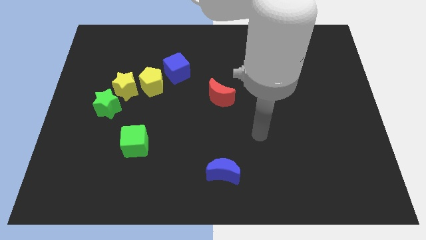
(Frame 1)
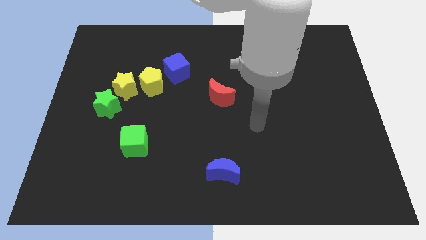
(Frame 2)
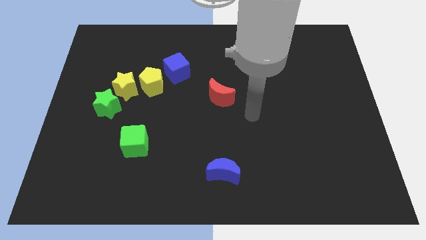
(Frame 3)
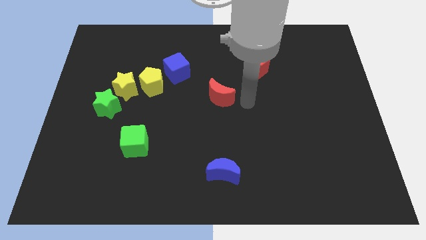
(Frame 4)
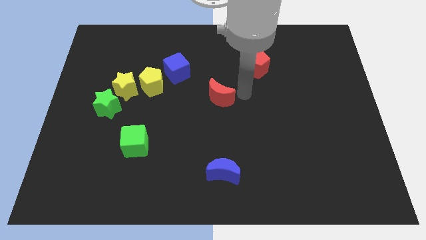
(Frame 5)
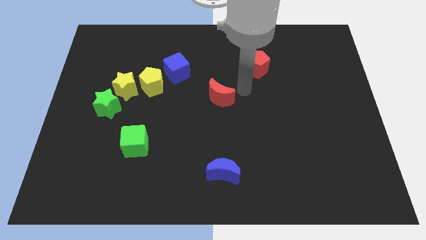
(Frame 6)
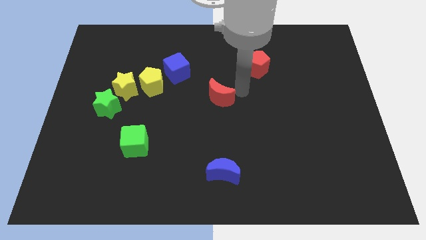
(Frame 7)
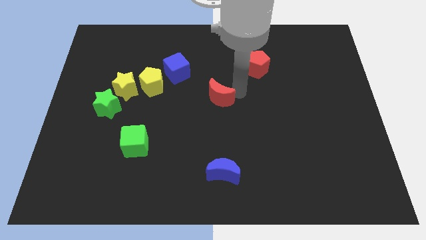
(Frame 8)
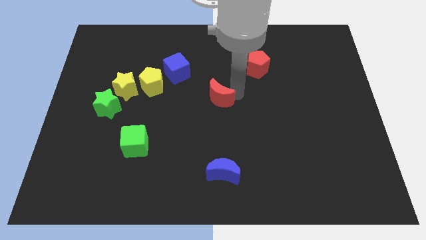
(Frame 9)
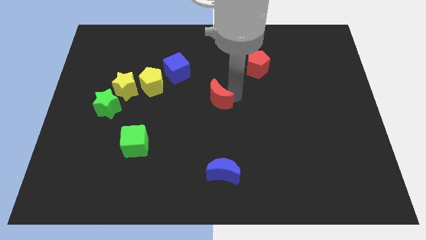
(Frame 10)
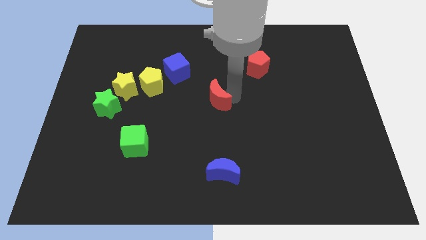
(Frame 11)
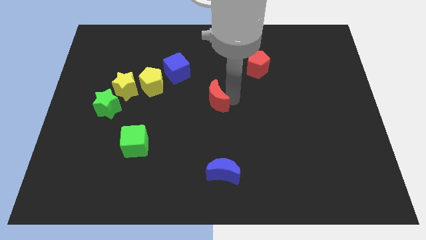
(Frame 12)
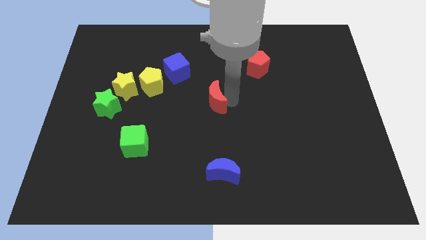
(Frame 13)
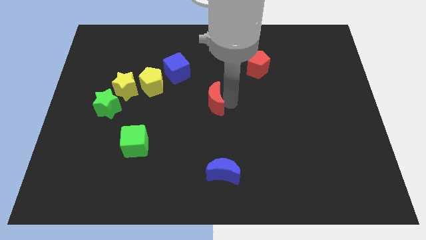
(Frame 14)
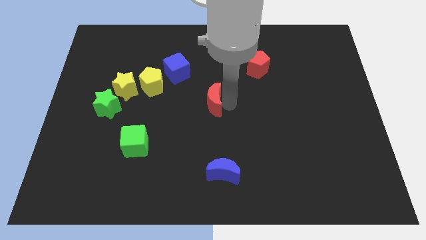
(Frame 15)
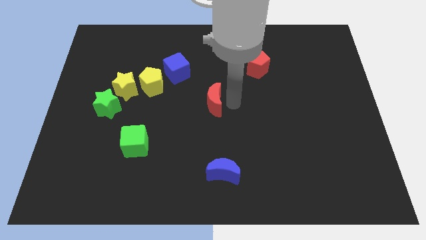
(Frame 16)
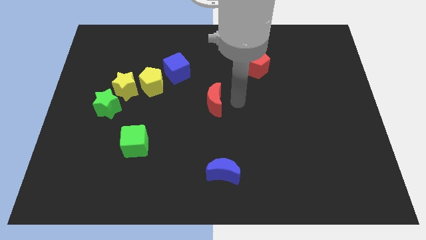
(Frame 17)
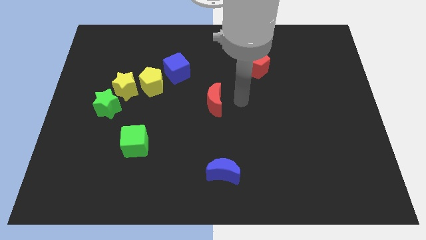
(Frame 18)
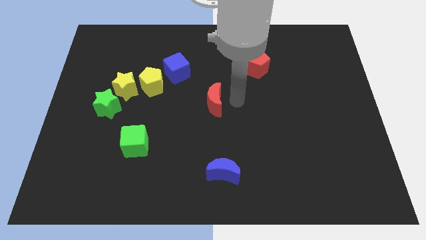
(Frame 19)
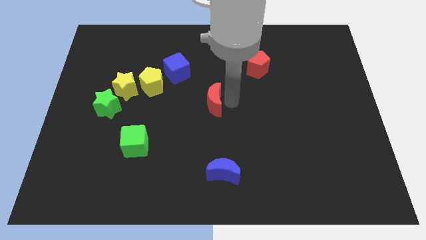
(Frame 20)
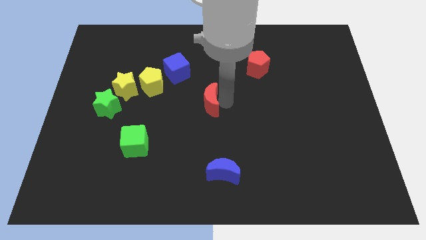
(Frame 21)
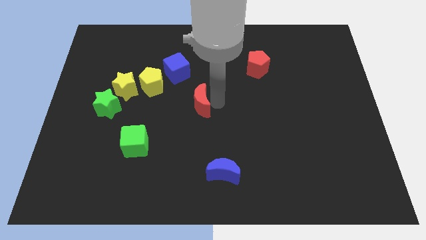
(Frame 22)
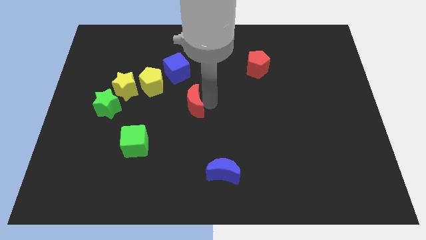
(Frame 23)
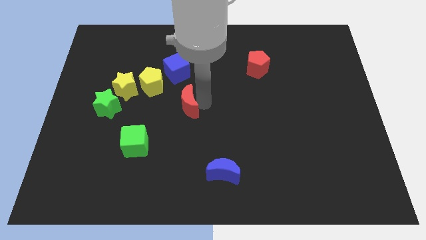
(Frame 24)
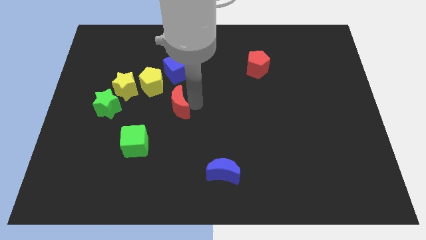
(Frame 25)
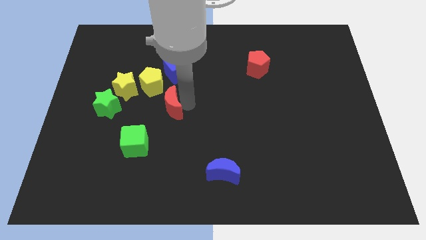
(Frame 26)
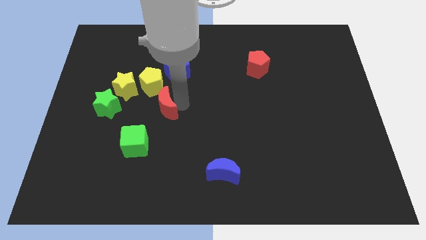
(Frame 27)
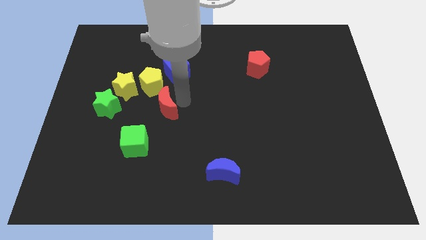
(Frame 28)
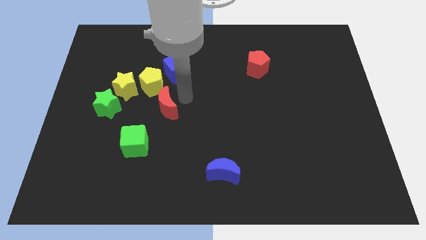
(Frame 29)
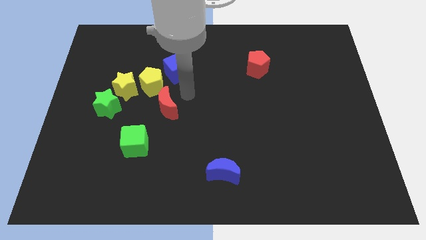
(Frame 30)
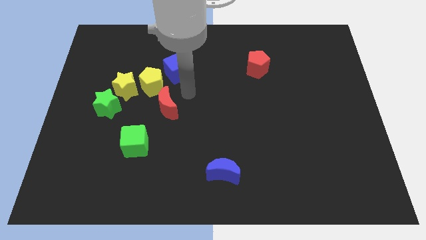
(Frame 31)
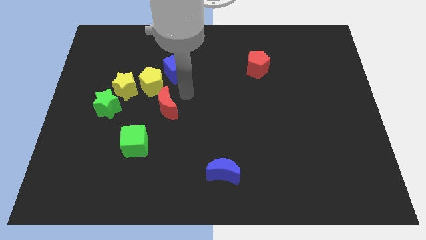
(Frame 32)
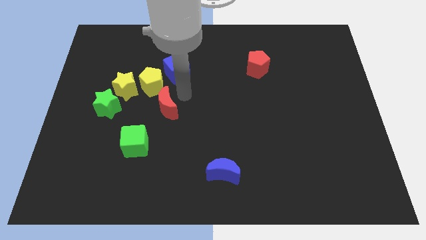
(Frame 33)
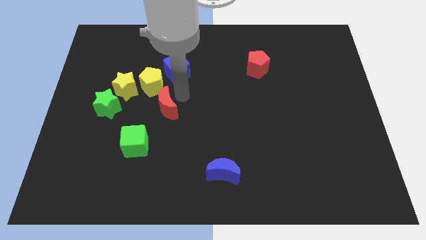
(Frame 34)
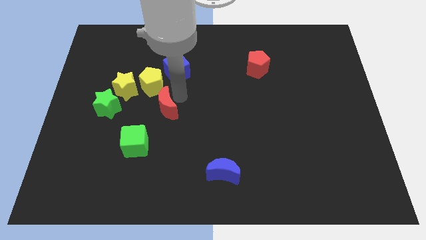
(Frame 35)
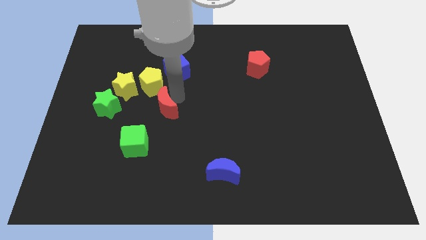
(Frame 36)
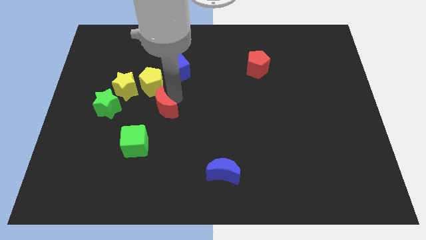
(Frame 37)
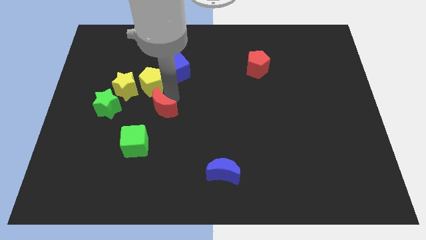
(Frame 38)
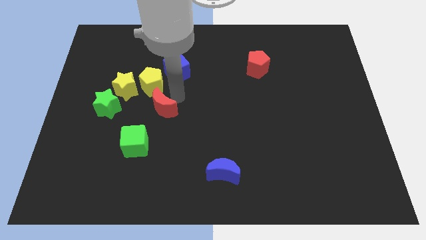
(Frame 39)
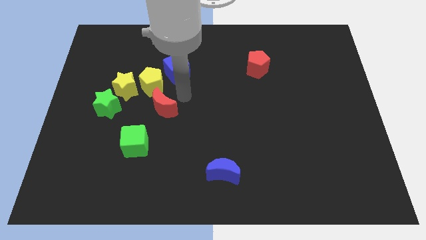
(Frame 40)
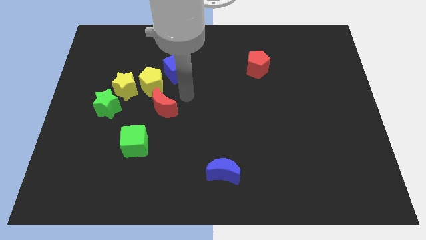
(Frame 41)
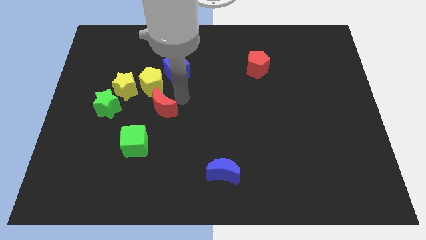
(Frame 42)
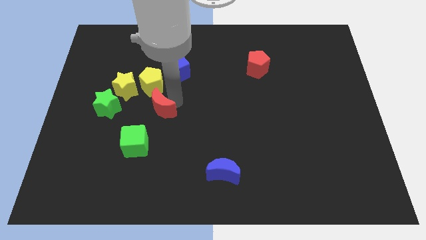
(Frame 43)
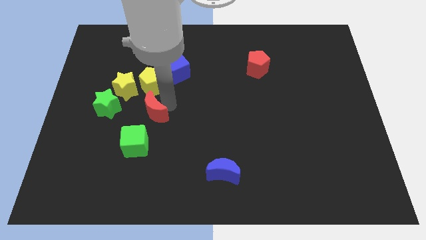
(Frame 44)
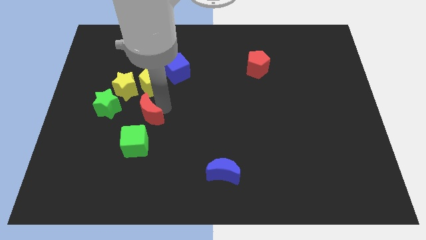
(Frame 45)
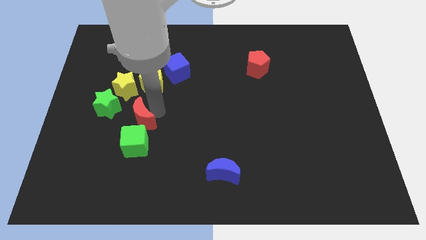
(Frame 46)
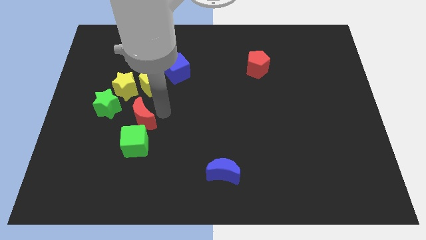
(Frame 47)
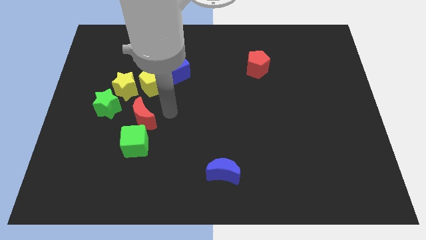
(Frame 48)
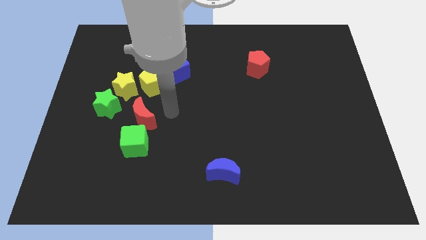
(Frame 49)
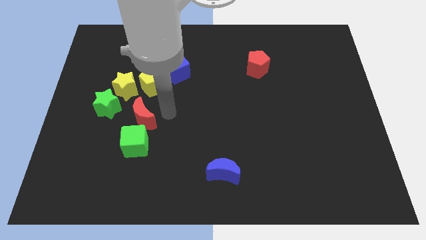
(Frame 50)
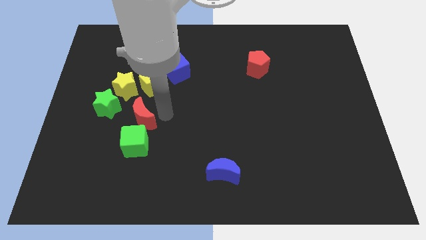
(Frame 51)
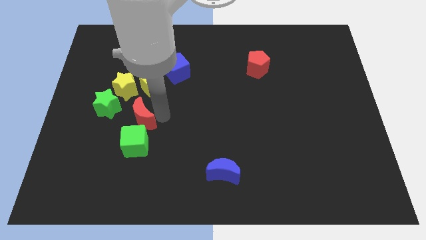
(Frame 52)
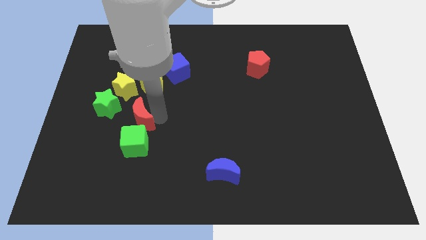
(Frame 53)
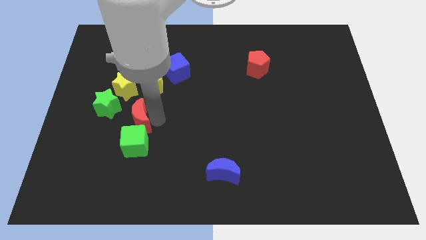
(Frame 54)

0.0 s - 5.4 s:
push the red moon to the bottom side of the yellow star

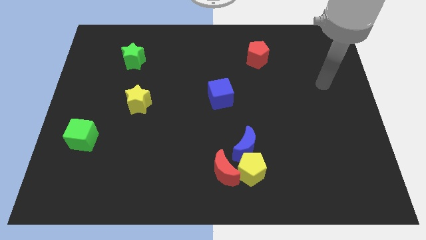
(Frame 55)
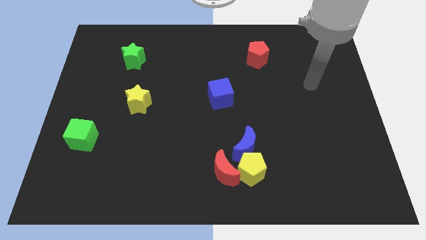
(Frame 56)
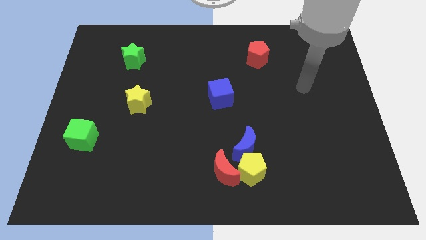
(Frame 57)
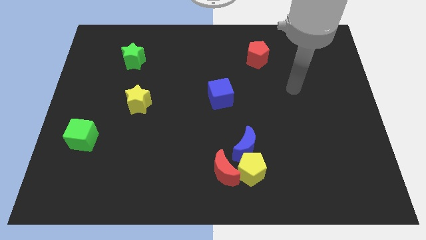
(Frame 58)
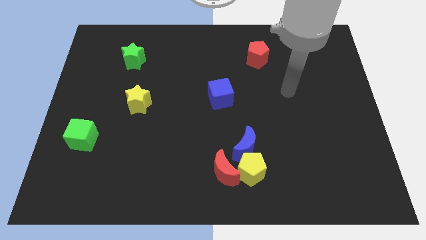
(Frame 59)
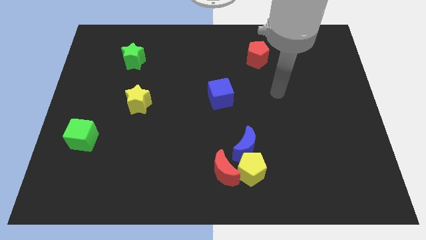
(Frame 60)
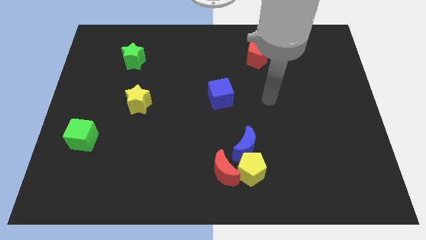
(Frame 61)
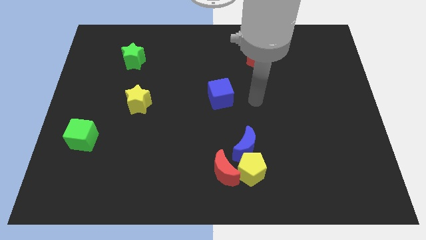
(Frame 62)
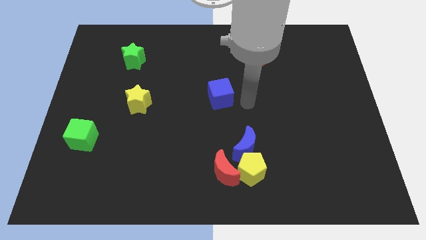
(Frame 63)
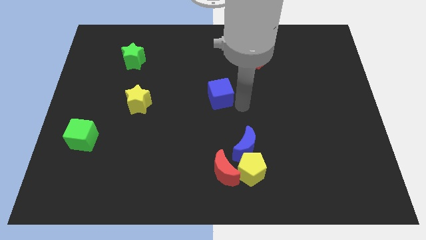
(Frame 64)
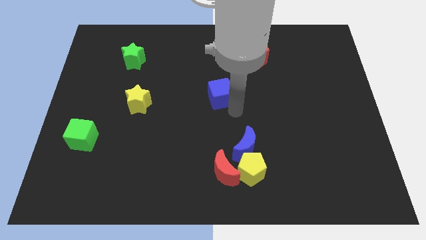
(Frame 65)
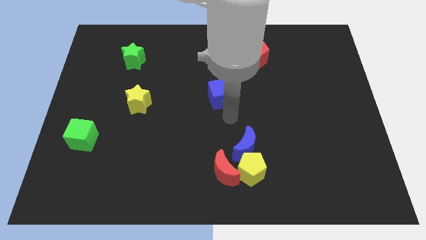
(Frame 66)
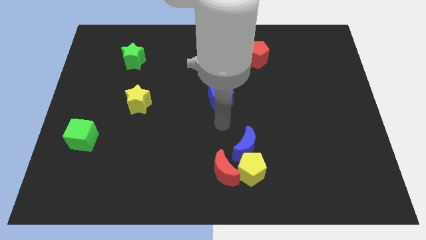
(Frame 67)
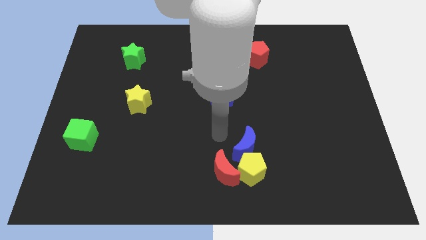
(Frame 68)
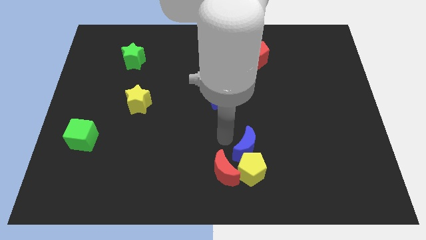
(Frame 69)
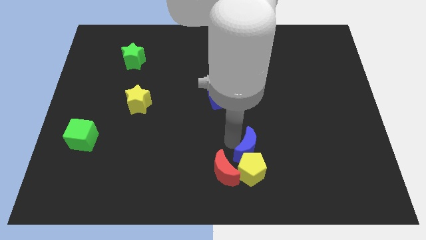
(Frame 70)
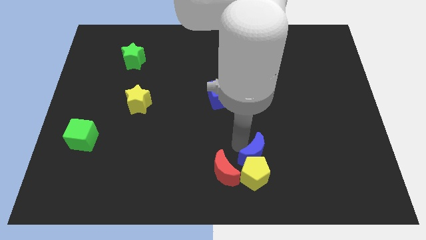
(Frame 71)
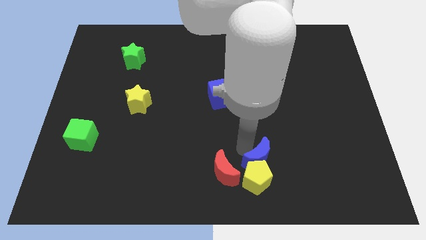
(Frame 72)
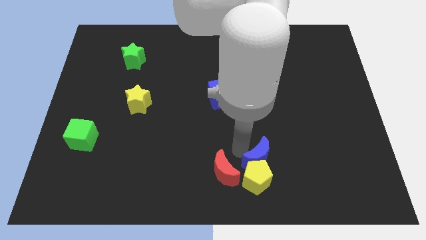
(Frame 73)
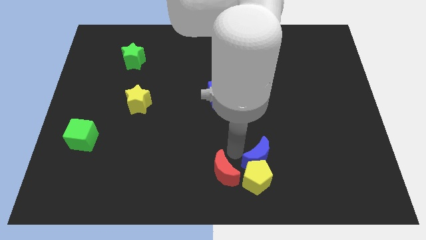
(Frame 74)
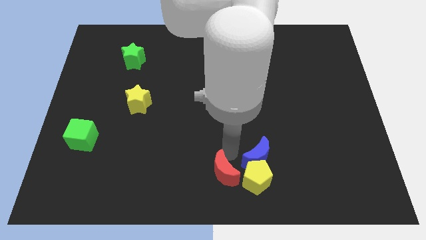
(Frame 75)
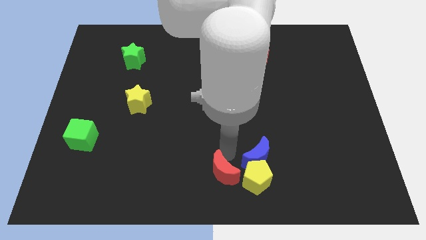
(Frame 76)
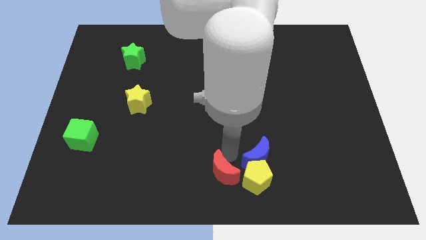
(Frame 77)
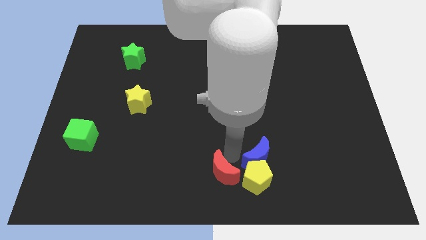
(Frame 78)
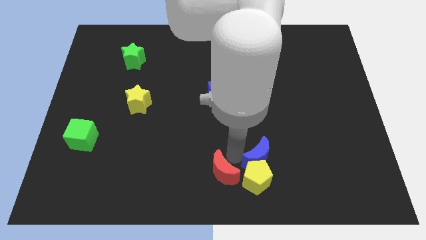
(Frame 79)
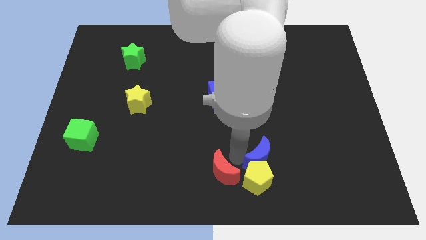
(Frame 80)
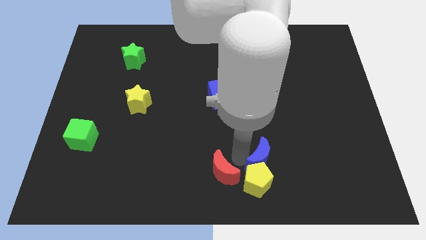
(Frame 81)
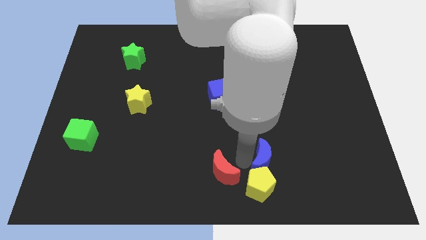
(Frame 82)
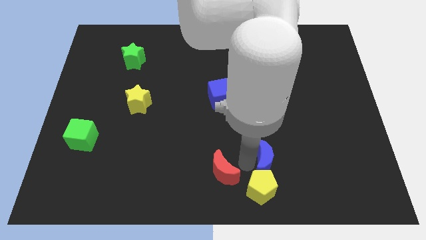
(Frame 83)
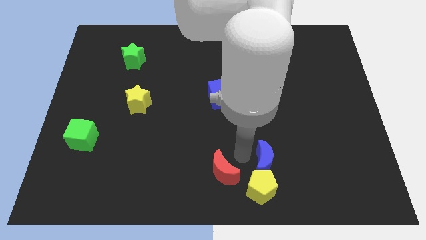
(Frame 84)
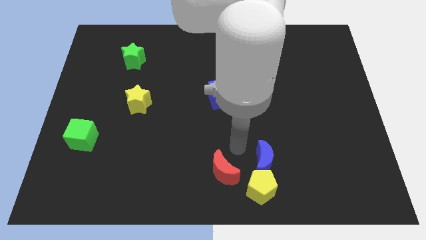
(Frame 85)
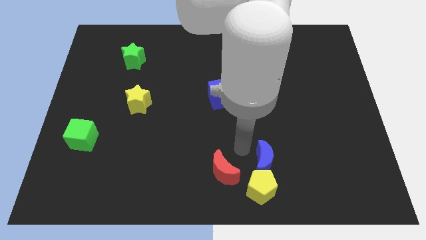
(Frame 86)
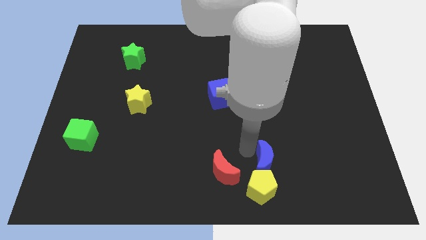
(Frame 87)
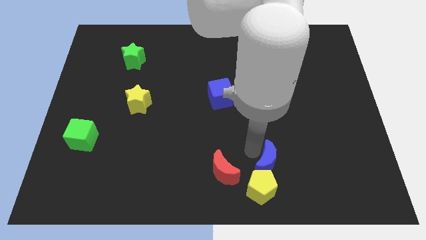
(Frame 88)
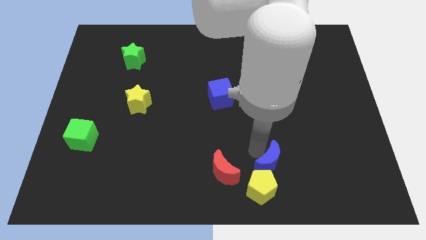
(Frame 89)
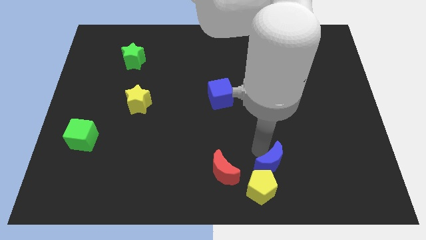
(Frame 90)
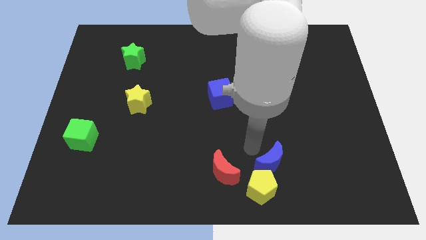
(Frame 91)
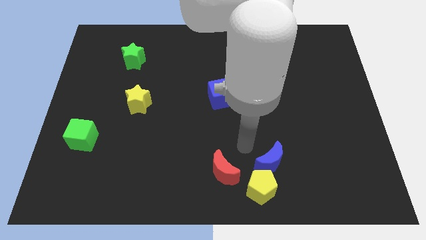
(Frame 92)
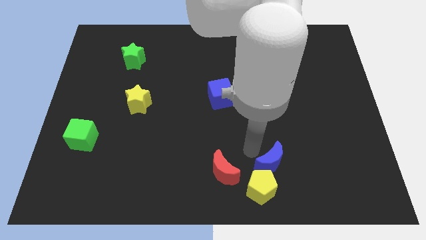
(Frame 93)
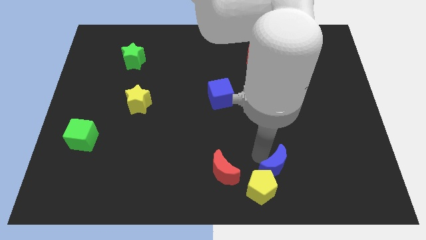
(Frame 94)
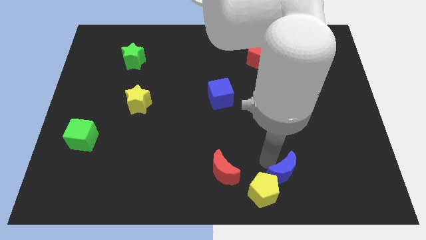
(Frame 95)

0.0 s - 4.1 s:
slide the blue moon right of the yellow pentagon
